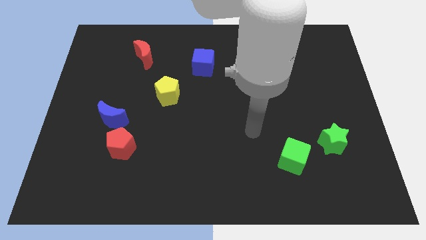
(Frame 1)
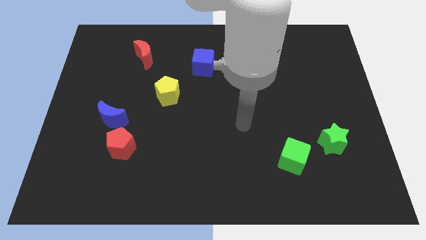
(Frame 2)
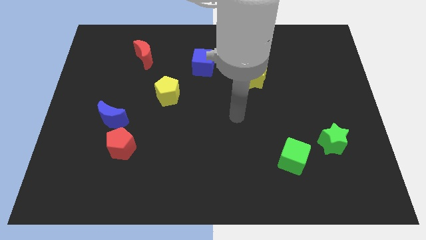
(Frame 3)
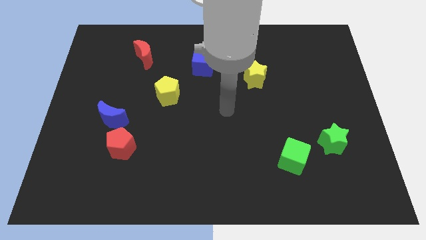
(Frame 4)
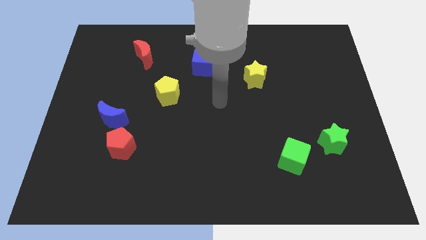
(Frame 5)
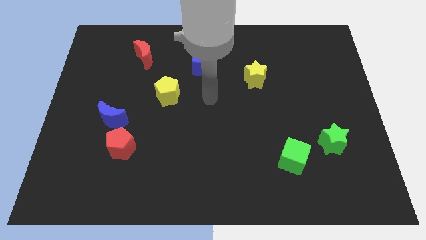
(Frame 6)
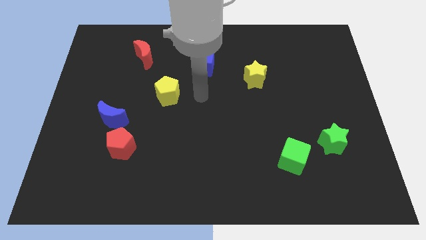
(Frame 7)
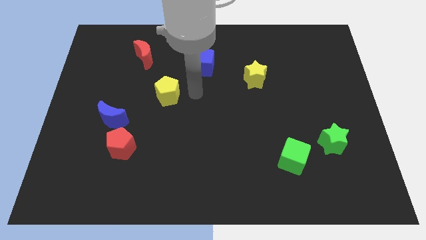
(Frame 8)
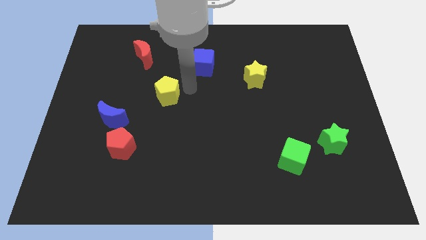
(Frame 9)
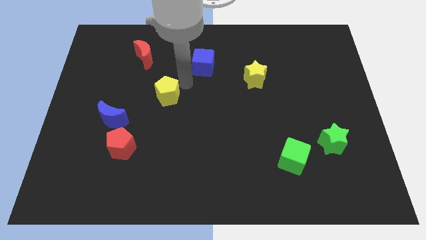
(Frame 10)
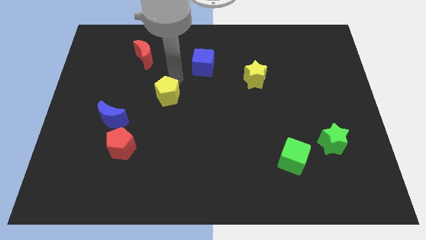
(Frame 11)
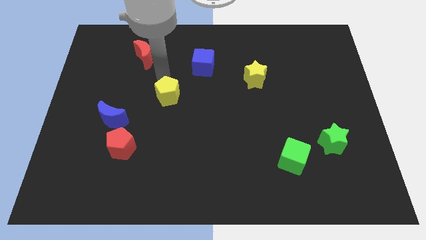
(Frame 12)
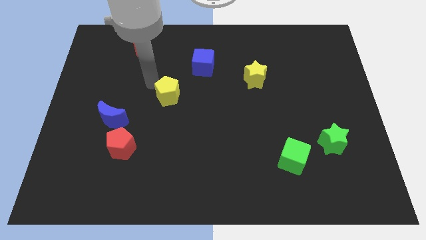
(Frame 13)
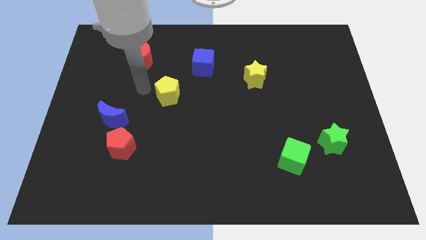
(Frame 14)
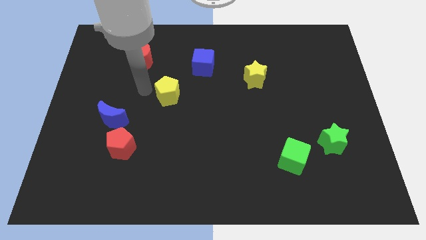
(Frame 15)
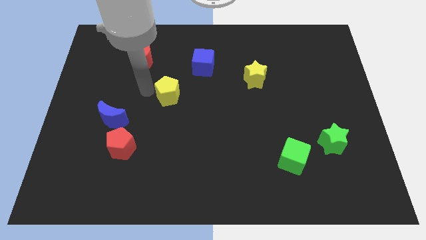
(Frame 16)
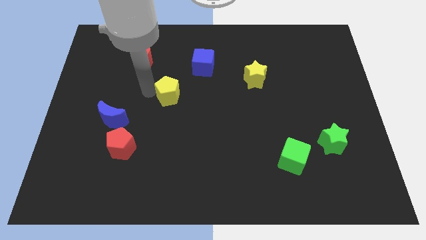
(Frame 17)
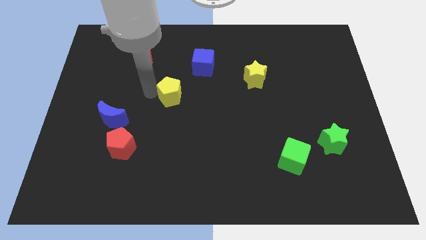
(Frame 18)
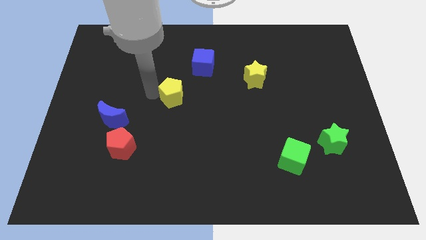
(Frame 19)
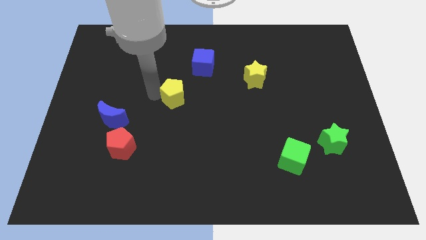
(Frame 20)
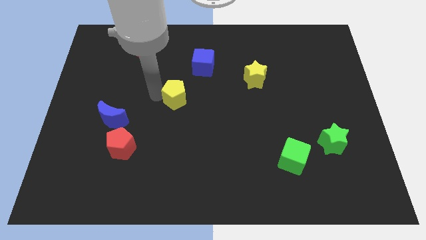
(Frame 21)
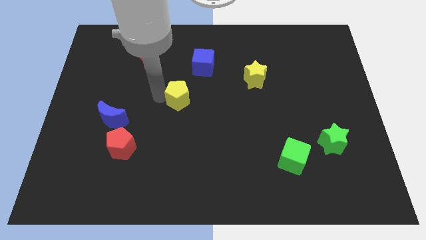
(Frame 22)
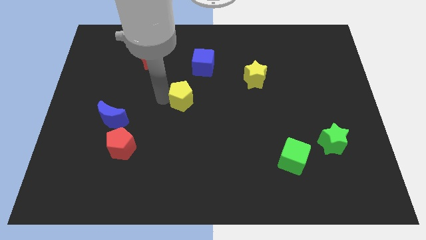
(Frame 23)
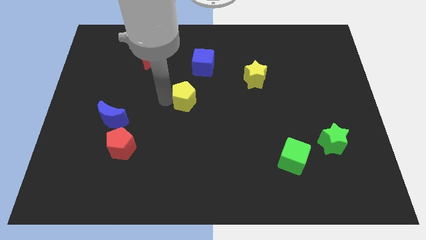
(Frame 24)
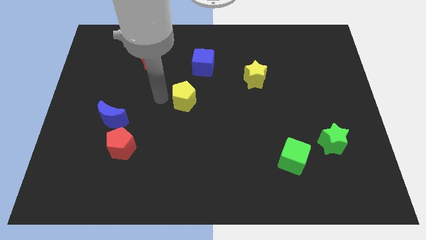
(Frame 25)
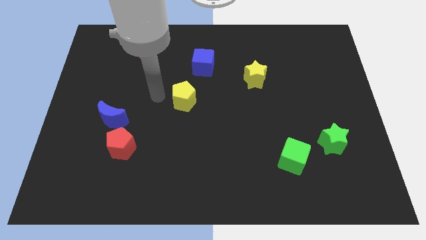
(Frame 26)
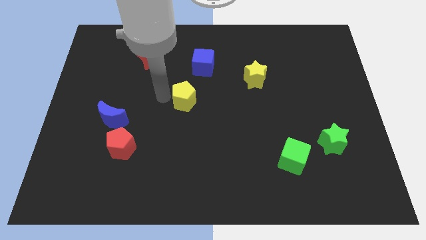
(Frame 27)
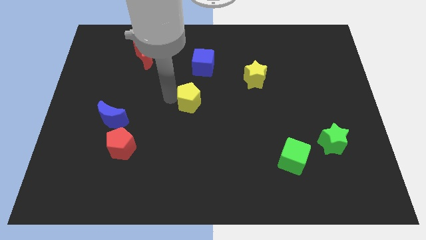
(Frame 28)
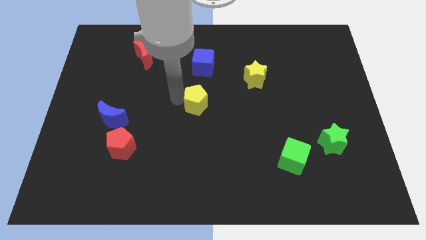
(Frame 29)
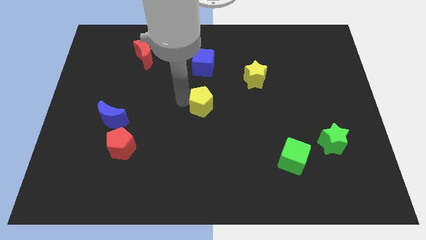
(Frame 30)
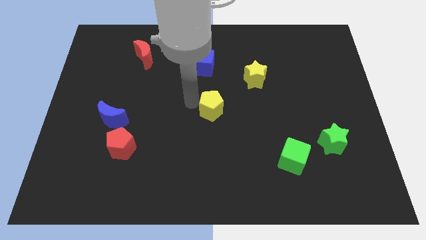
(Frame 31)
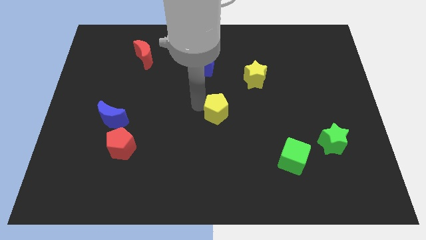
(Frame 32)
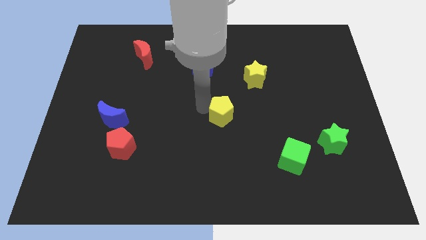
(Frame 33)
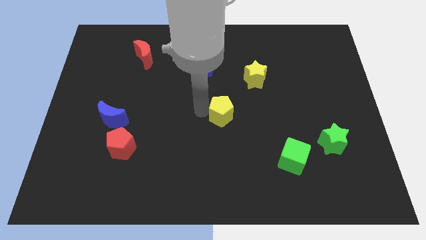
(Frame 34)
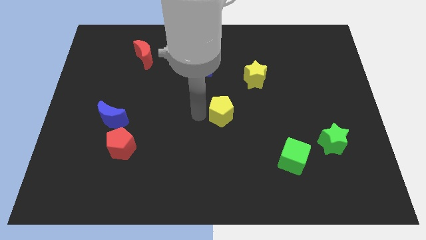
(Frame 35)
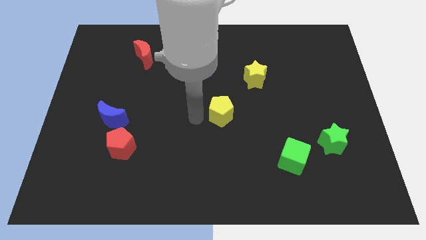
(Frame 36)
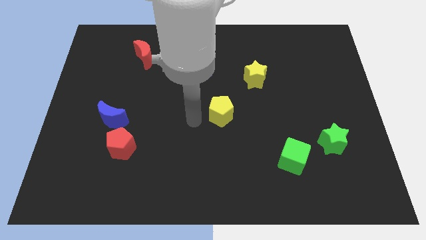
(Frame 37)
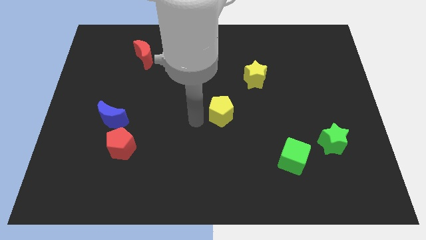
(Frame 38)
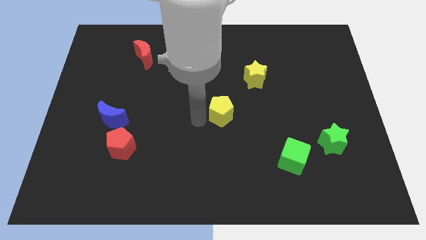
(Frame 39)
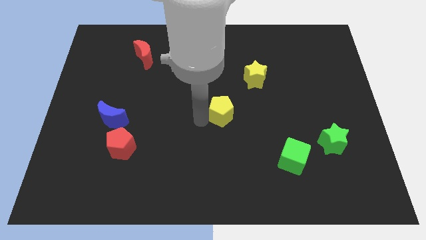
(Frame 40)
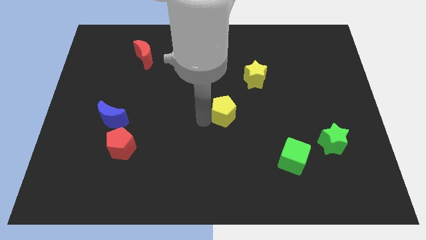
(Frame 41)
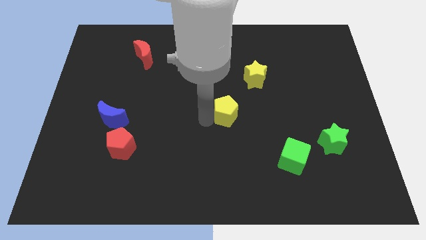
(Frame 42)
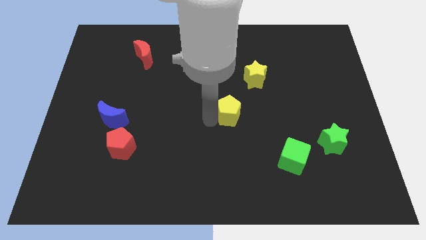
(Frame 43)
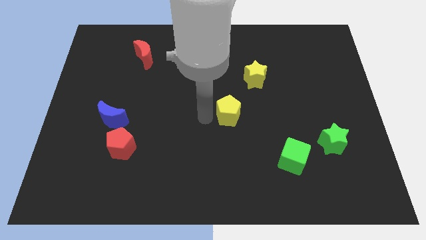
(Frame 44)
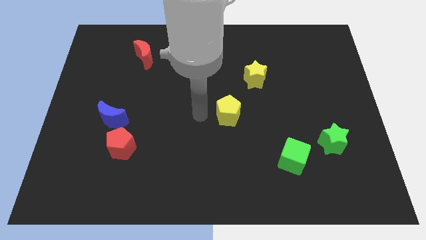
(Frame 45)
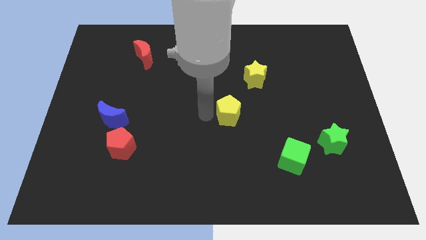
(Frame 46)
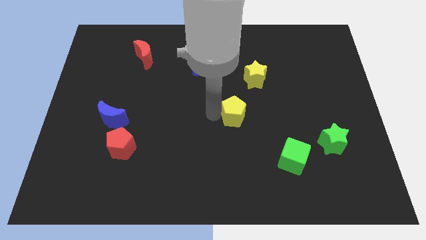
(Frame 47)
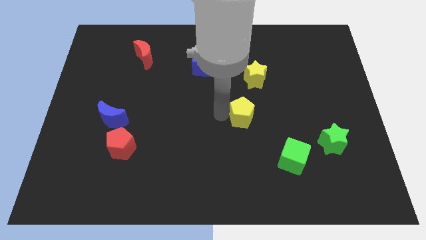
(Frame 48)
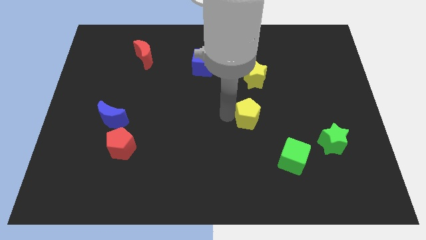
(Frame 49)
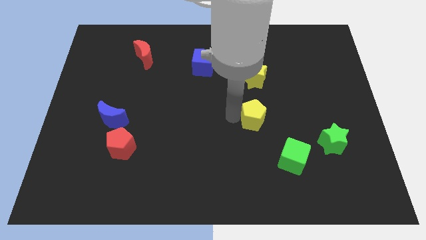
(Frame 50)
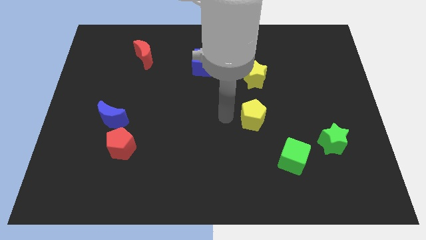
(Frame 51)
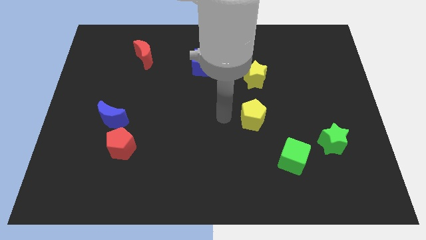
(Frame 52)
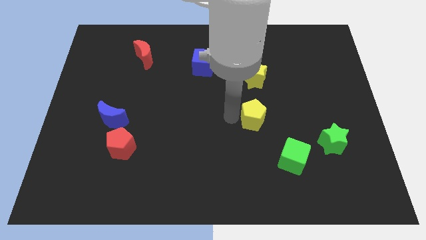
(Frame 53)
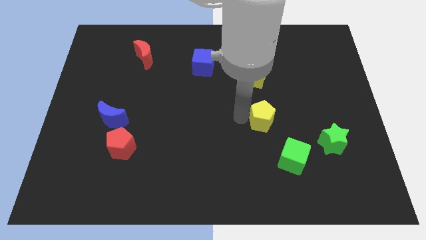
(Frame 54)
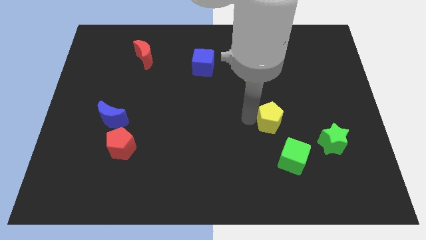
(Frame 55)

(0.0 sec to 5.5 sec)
slide the yellow pentagon above the green cube

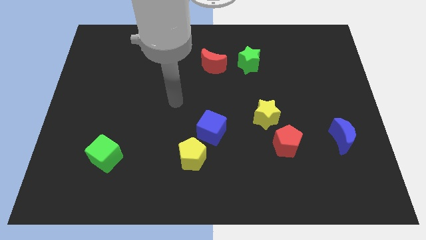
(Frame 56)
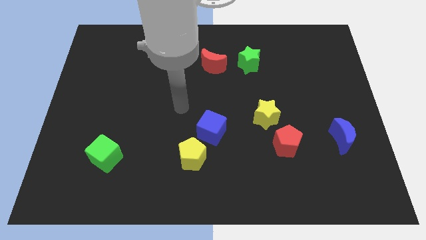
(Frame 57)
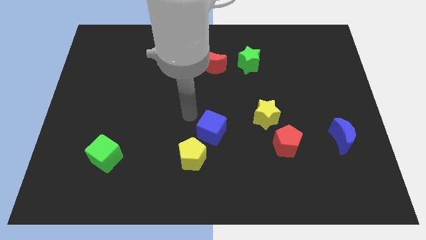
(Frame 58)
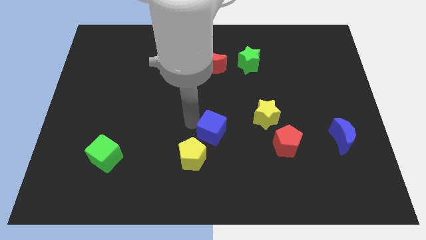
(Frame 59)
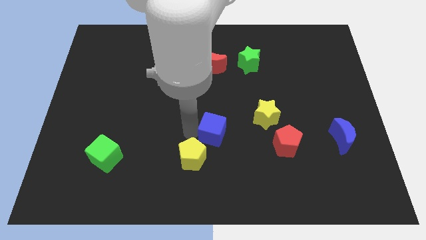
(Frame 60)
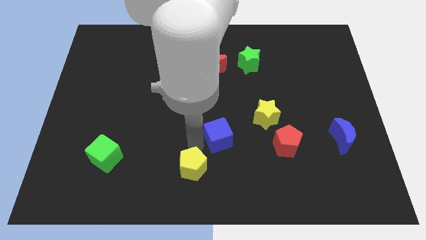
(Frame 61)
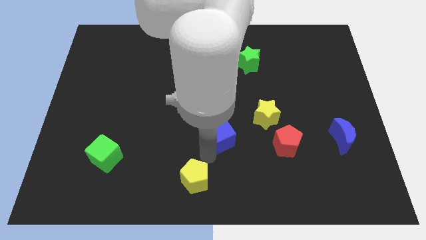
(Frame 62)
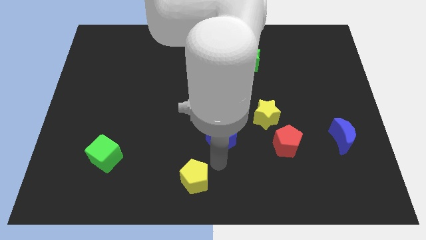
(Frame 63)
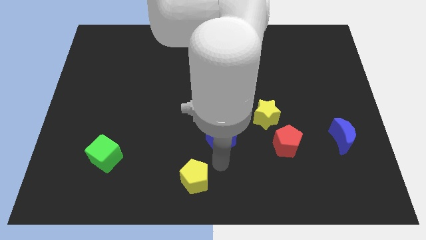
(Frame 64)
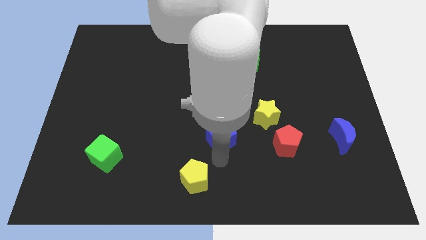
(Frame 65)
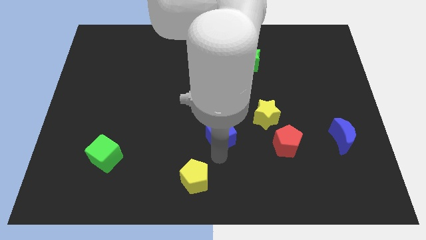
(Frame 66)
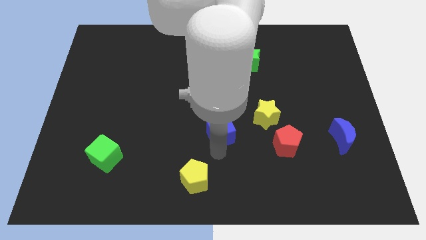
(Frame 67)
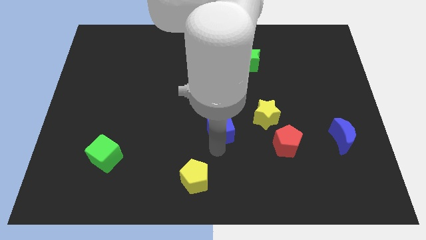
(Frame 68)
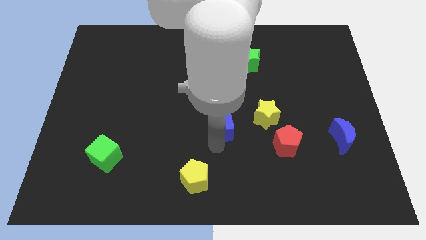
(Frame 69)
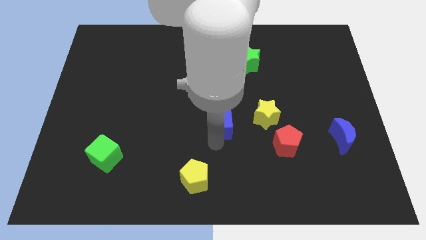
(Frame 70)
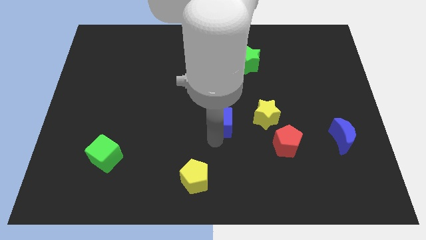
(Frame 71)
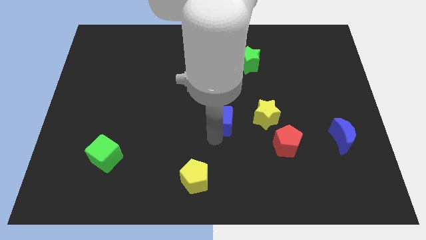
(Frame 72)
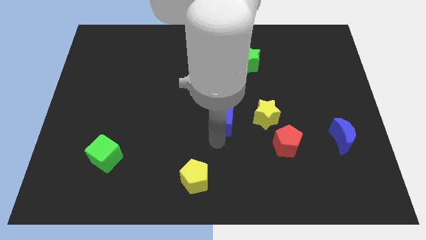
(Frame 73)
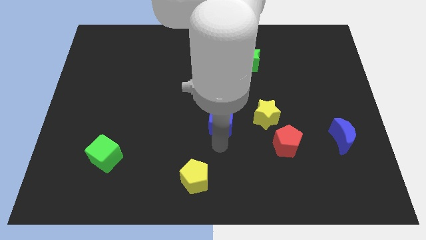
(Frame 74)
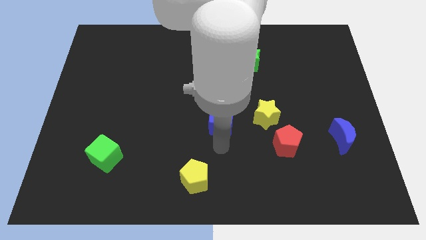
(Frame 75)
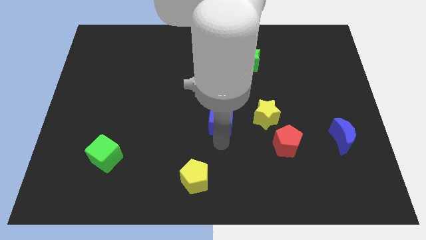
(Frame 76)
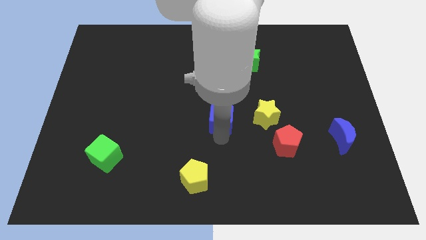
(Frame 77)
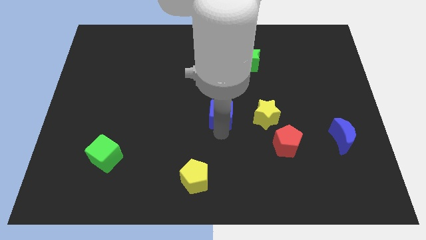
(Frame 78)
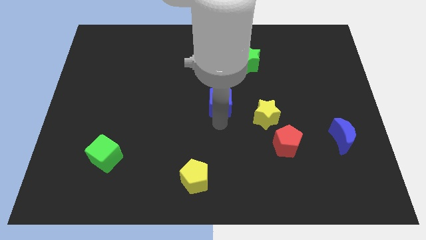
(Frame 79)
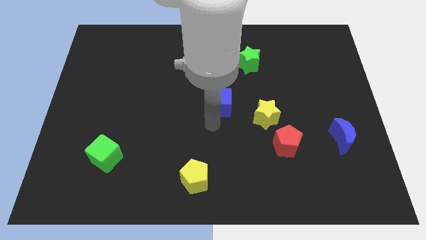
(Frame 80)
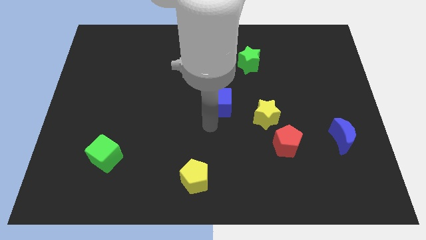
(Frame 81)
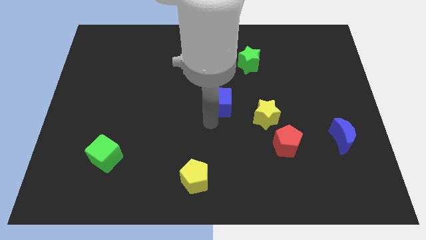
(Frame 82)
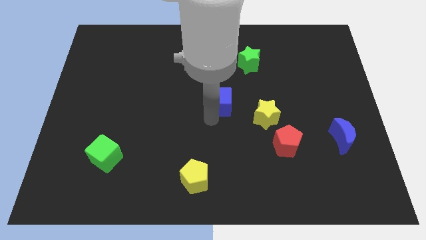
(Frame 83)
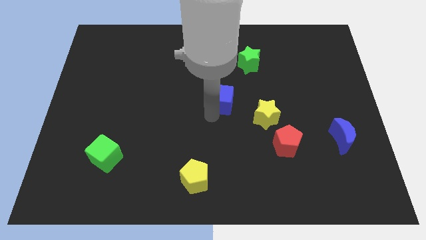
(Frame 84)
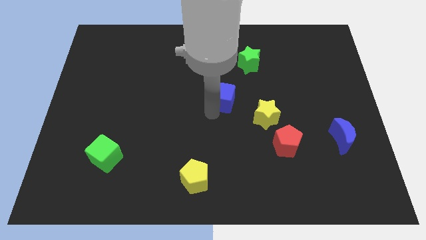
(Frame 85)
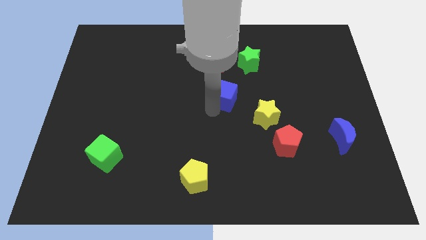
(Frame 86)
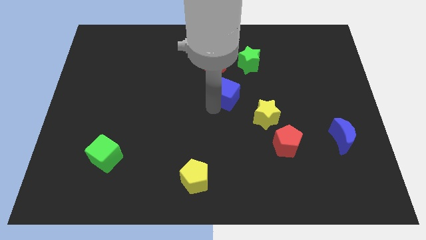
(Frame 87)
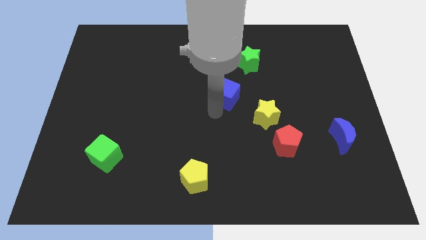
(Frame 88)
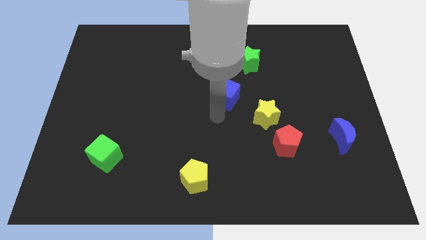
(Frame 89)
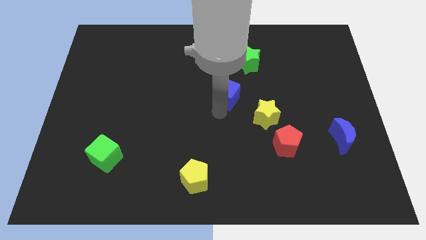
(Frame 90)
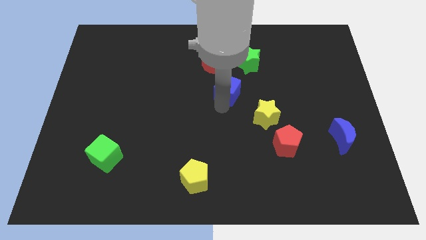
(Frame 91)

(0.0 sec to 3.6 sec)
put the blue cube to the bottom right side of the red moon
